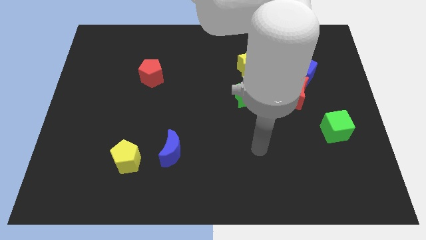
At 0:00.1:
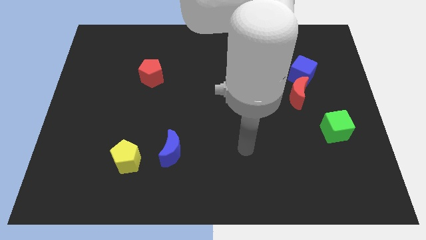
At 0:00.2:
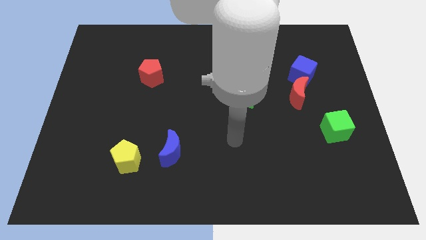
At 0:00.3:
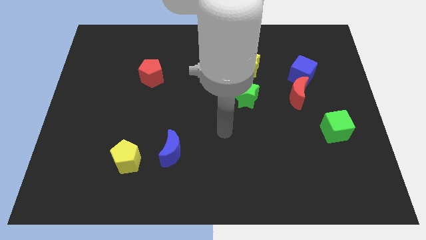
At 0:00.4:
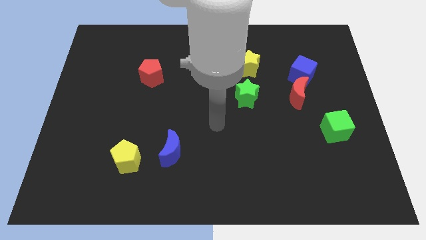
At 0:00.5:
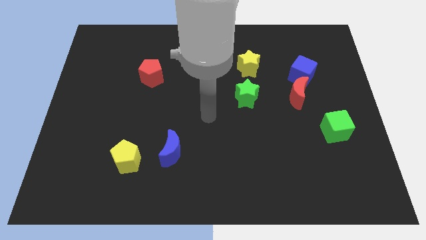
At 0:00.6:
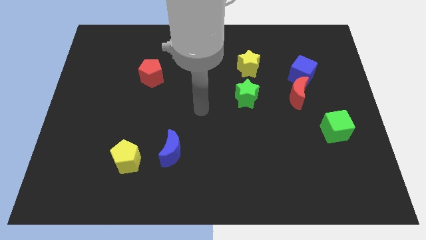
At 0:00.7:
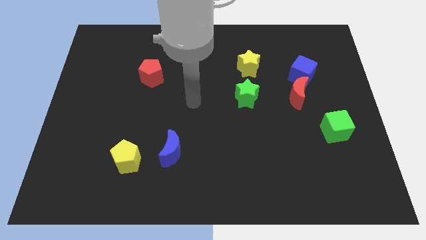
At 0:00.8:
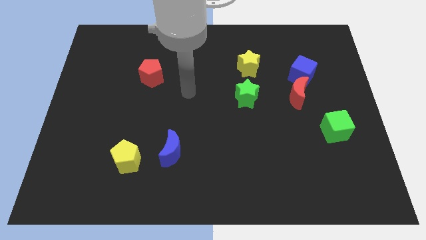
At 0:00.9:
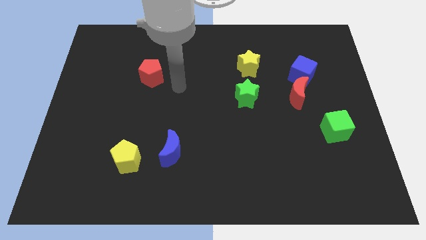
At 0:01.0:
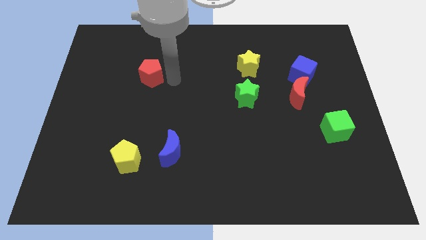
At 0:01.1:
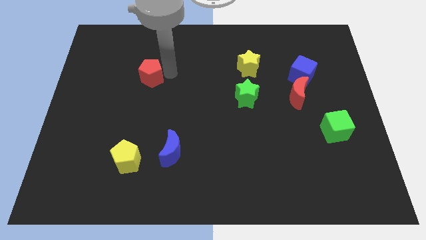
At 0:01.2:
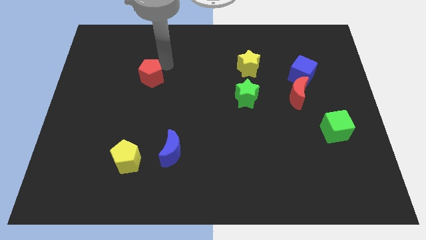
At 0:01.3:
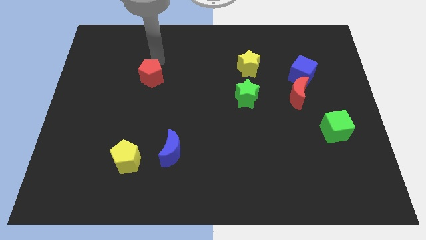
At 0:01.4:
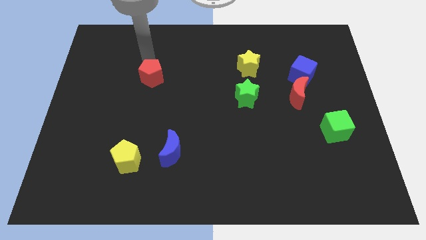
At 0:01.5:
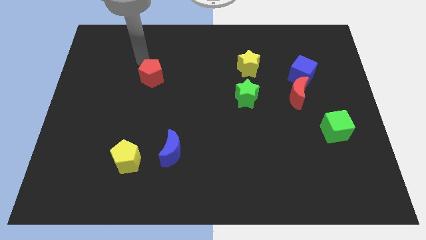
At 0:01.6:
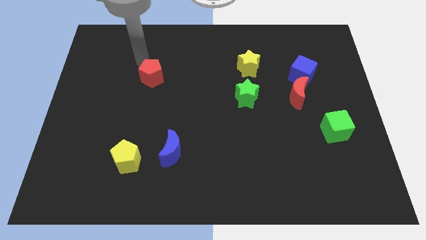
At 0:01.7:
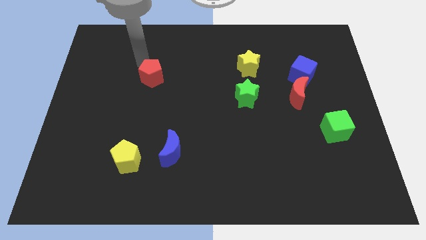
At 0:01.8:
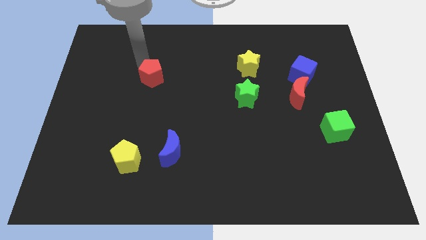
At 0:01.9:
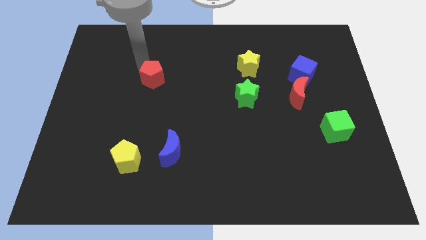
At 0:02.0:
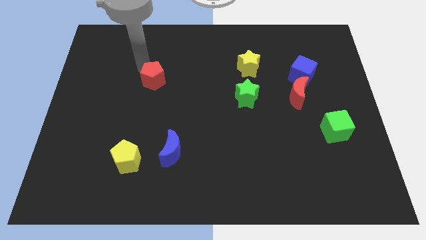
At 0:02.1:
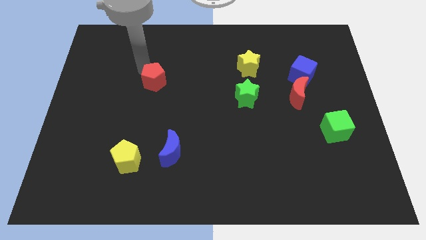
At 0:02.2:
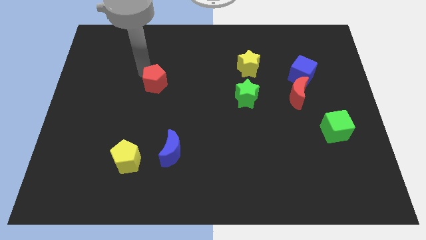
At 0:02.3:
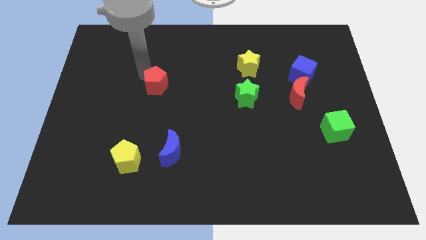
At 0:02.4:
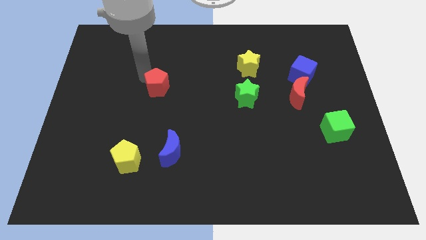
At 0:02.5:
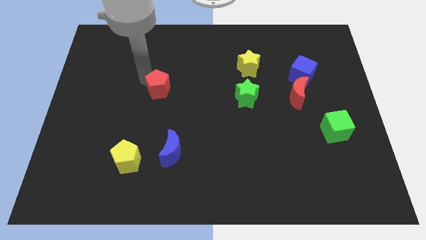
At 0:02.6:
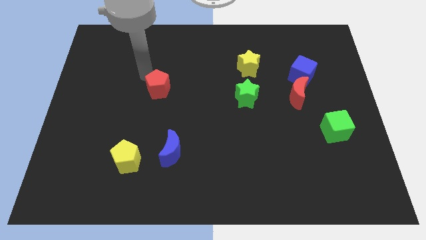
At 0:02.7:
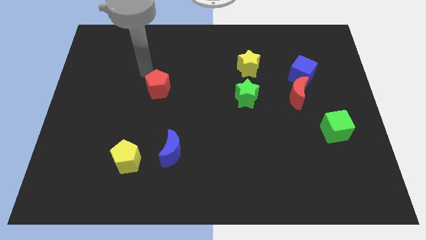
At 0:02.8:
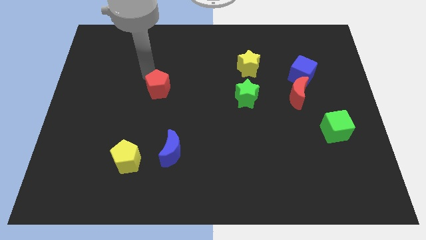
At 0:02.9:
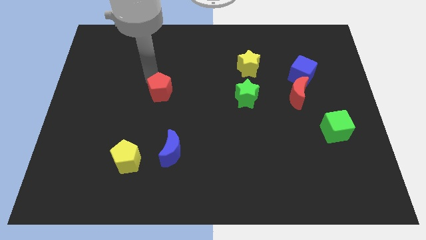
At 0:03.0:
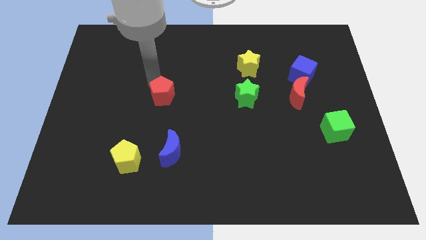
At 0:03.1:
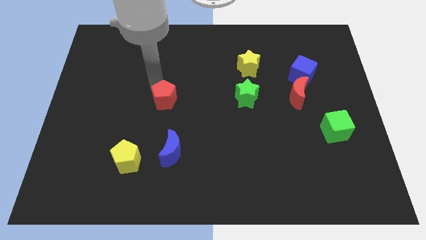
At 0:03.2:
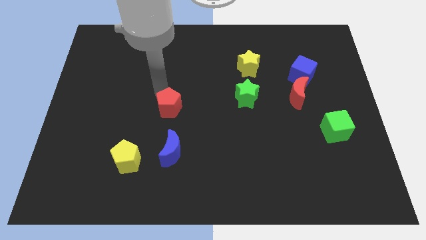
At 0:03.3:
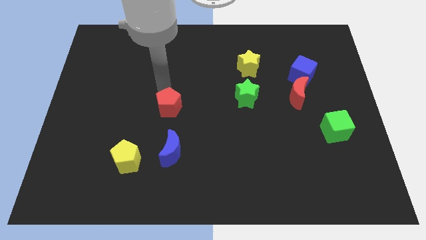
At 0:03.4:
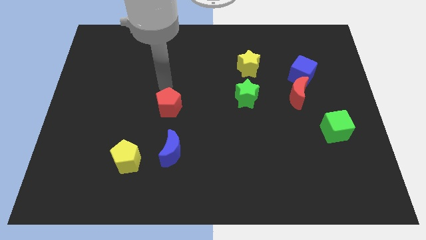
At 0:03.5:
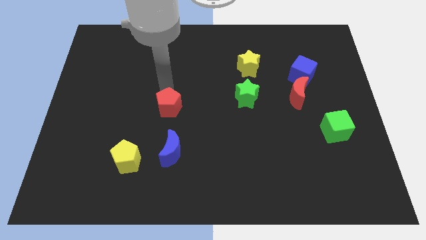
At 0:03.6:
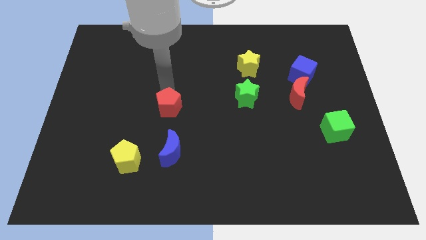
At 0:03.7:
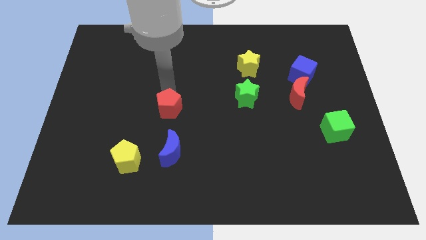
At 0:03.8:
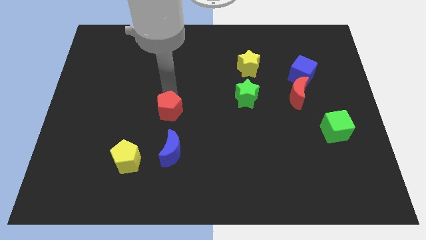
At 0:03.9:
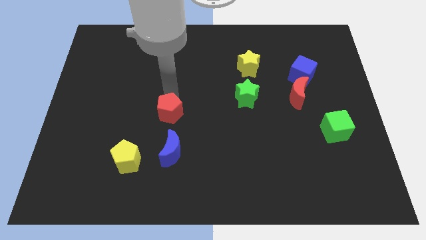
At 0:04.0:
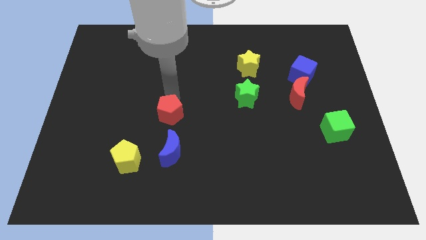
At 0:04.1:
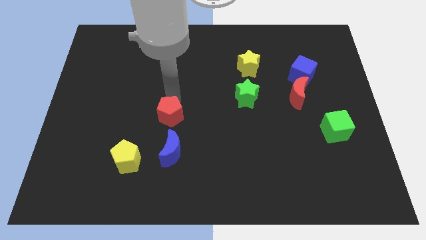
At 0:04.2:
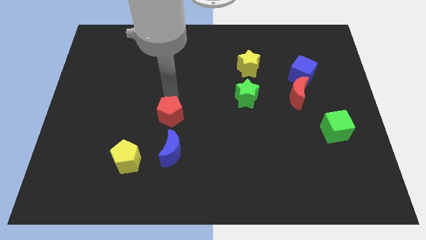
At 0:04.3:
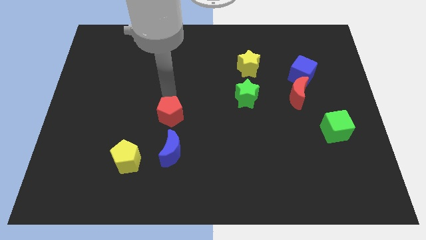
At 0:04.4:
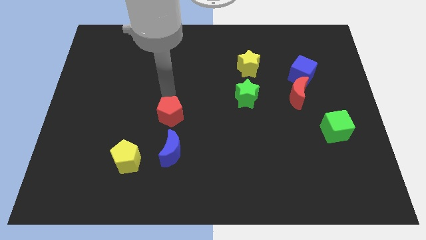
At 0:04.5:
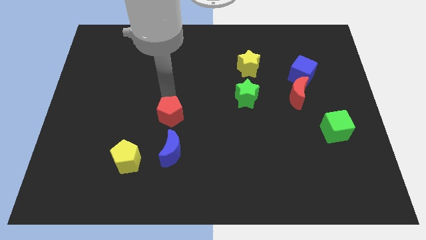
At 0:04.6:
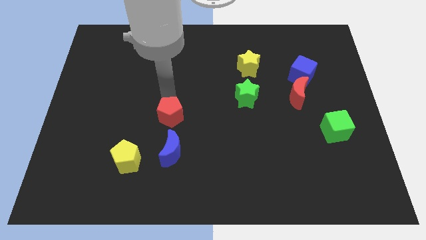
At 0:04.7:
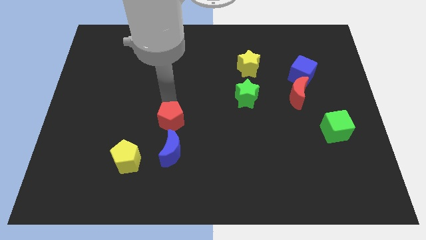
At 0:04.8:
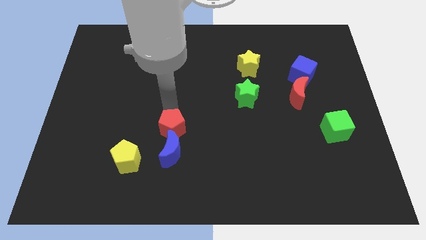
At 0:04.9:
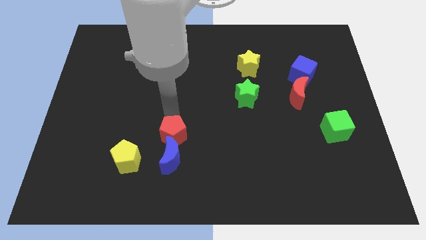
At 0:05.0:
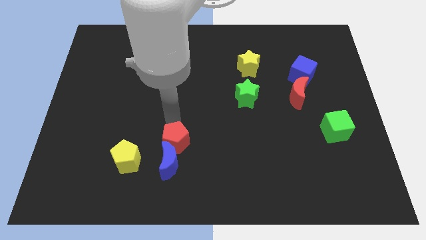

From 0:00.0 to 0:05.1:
push the red pentagon towards the blue moon

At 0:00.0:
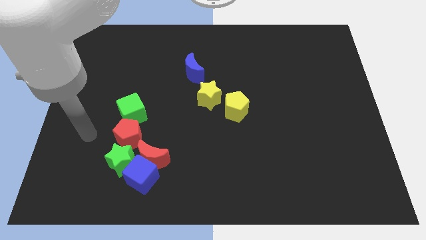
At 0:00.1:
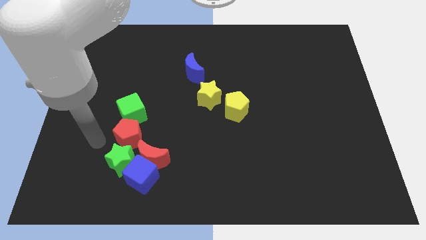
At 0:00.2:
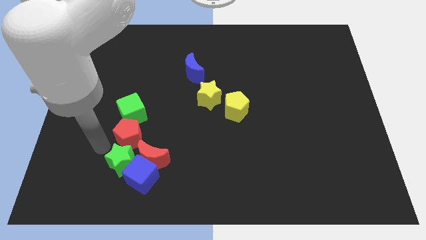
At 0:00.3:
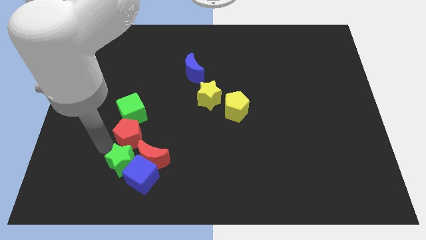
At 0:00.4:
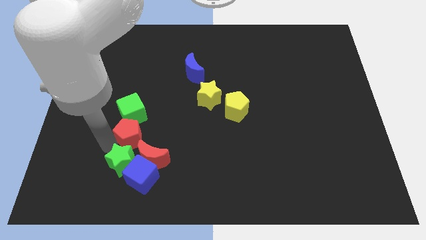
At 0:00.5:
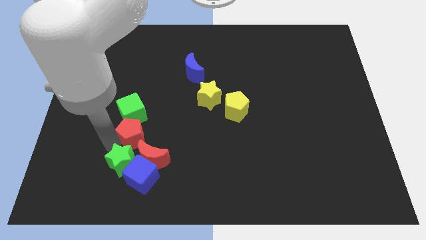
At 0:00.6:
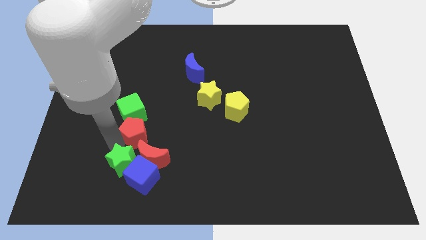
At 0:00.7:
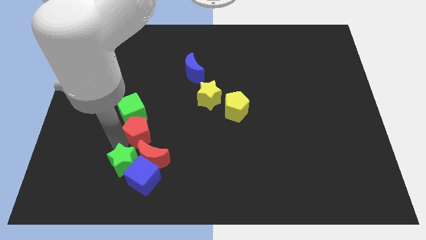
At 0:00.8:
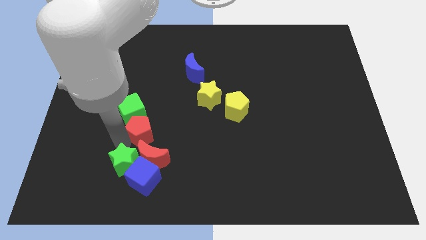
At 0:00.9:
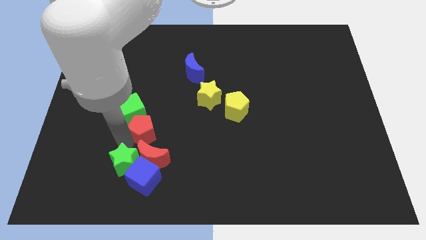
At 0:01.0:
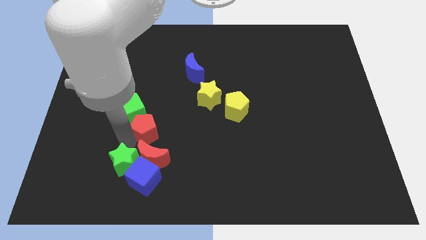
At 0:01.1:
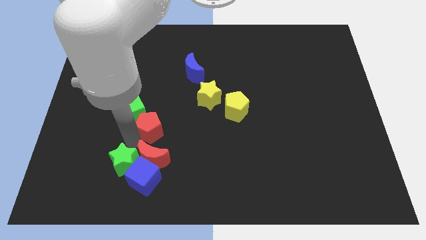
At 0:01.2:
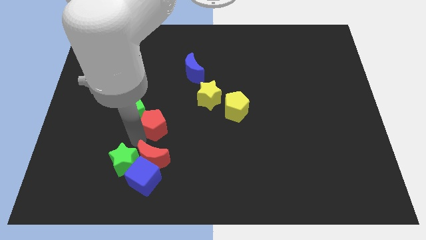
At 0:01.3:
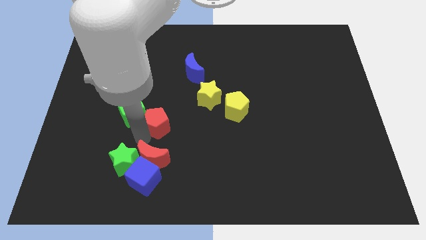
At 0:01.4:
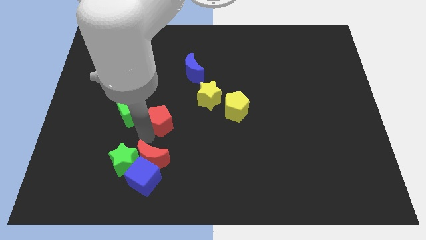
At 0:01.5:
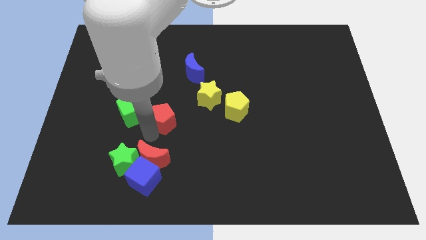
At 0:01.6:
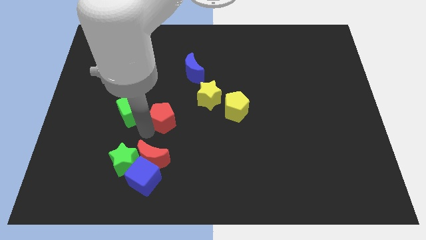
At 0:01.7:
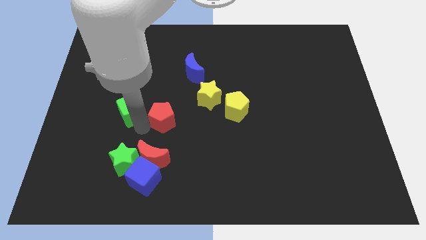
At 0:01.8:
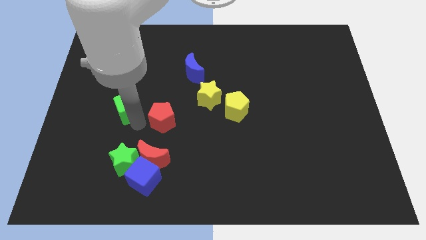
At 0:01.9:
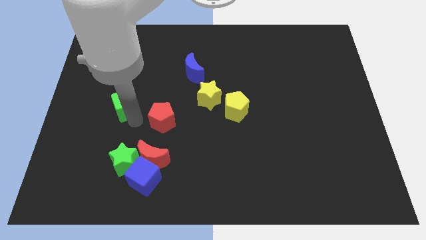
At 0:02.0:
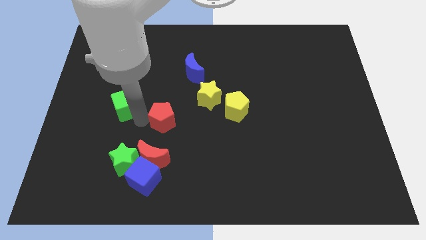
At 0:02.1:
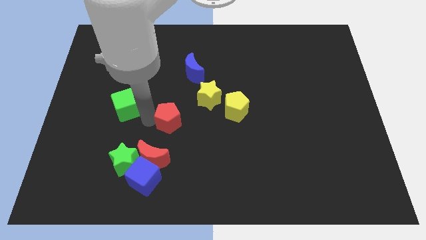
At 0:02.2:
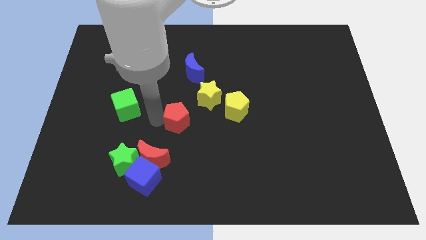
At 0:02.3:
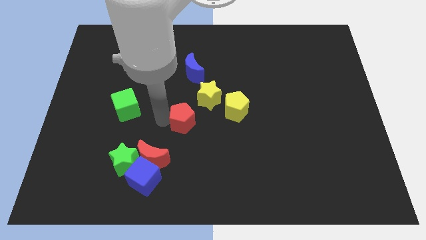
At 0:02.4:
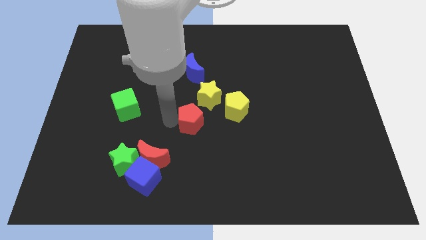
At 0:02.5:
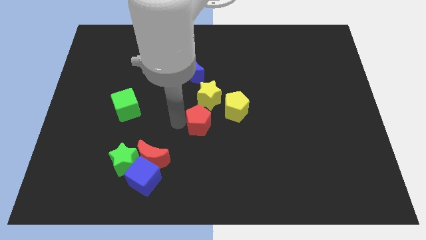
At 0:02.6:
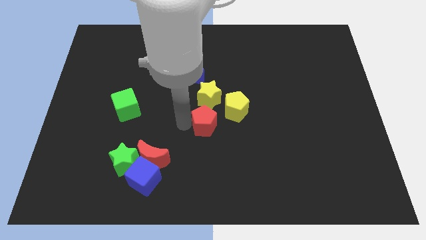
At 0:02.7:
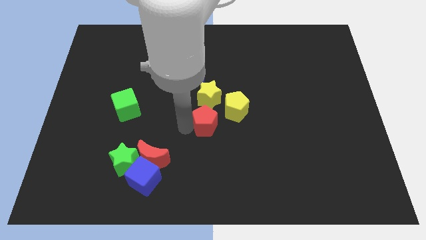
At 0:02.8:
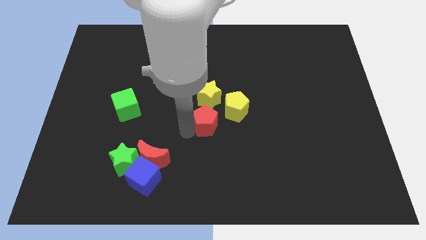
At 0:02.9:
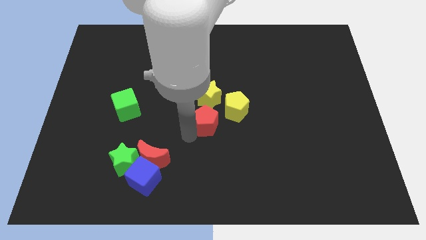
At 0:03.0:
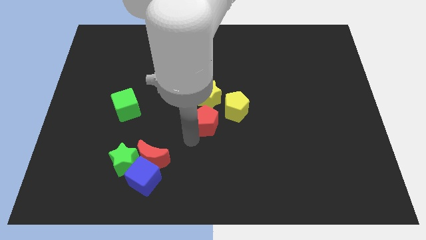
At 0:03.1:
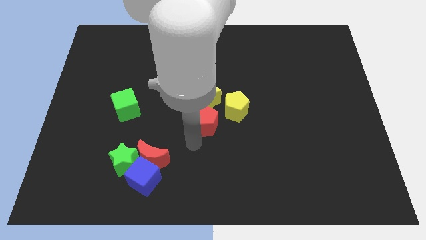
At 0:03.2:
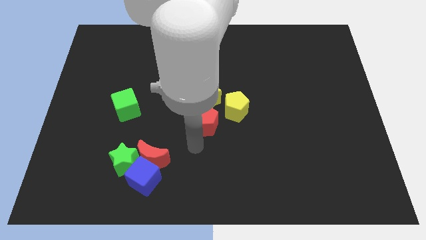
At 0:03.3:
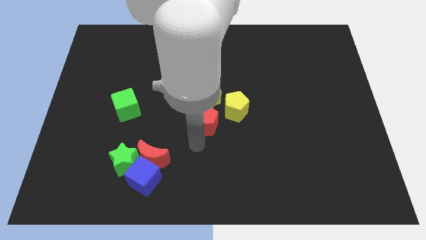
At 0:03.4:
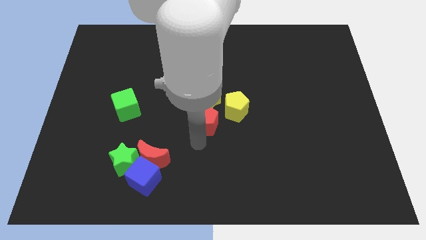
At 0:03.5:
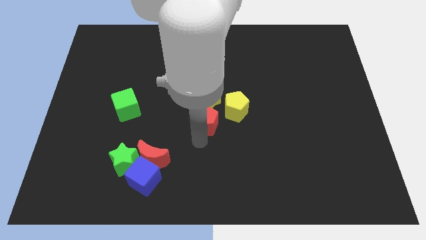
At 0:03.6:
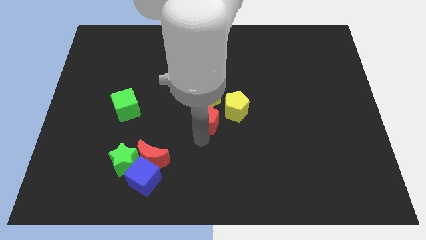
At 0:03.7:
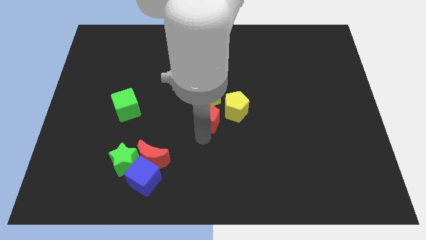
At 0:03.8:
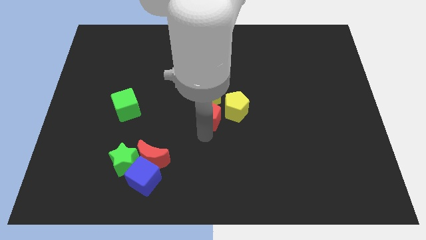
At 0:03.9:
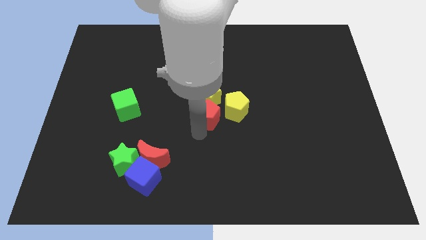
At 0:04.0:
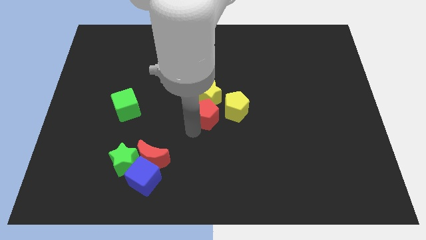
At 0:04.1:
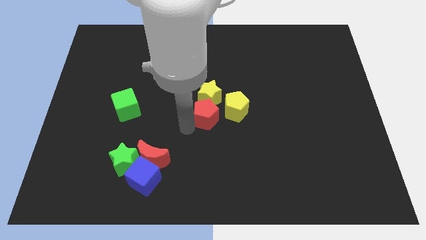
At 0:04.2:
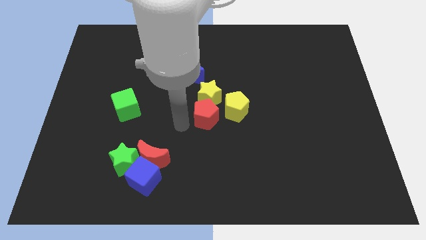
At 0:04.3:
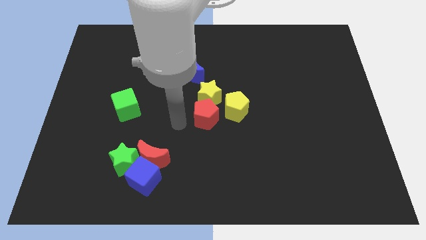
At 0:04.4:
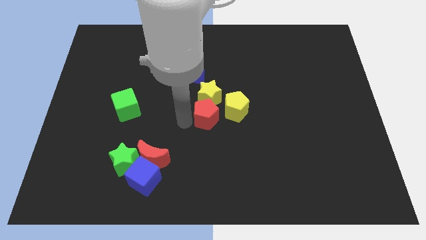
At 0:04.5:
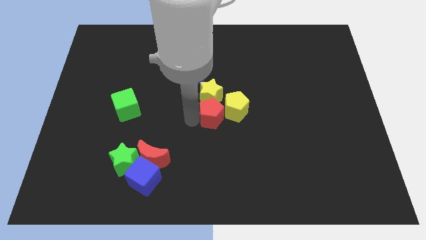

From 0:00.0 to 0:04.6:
push the red pentagon to the yellow pentagon
